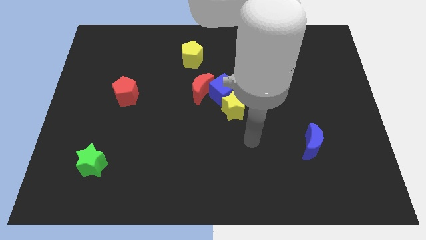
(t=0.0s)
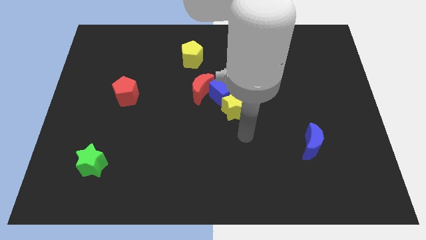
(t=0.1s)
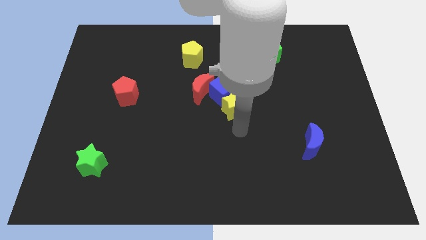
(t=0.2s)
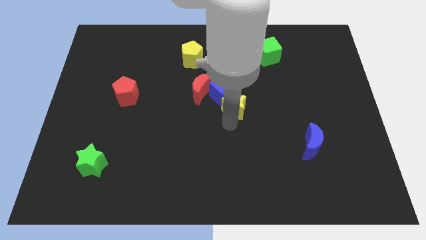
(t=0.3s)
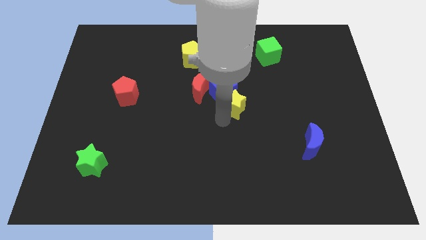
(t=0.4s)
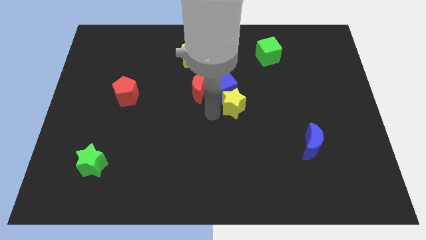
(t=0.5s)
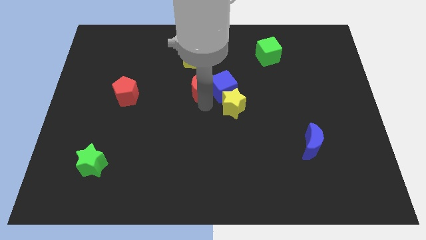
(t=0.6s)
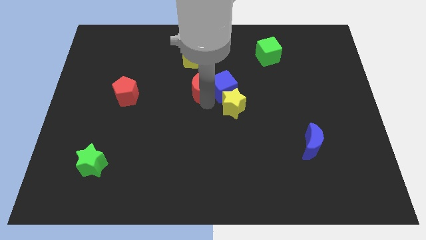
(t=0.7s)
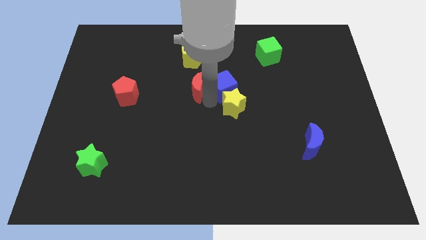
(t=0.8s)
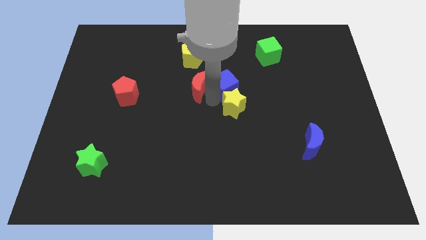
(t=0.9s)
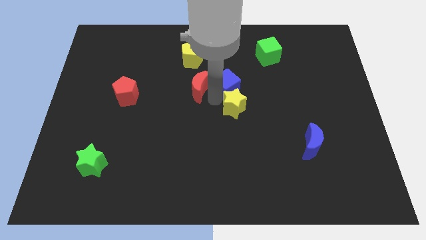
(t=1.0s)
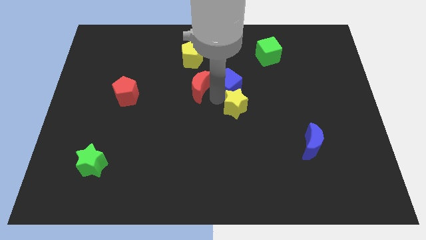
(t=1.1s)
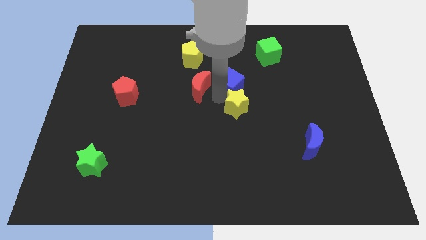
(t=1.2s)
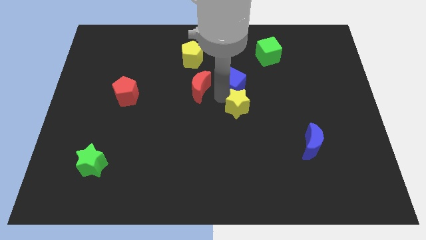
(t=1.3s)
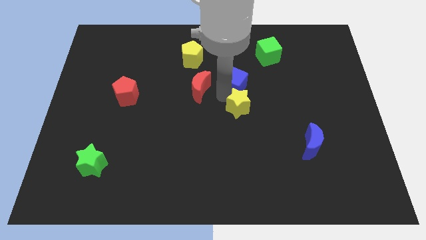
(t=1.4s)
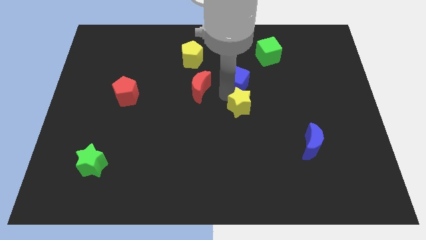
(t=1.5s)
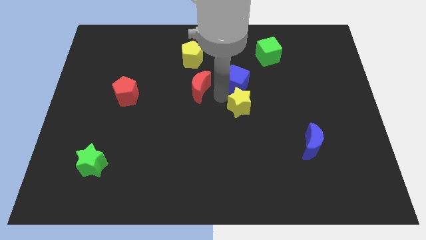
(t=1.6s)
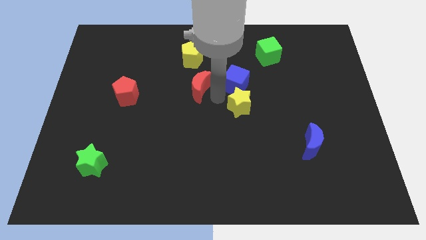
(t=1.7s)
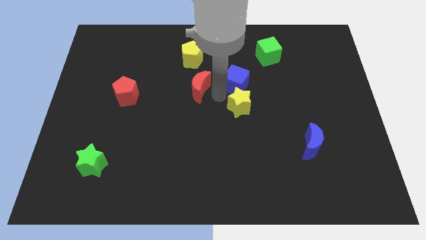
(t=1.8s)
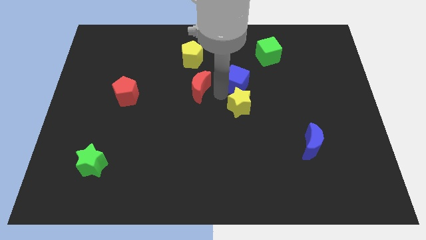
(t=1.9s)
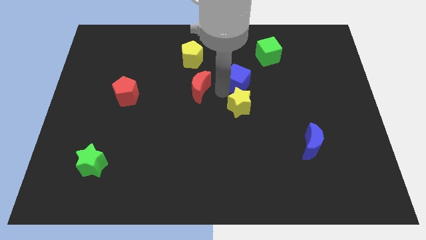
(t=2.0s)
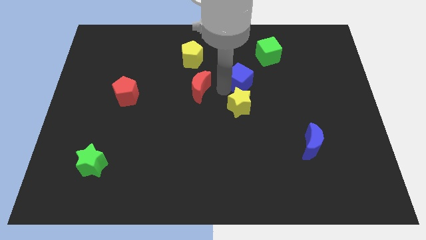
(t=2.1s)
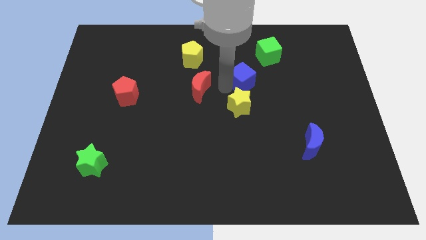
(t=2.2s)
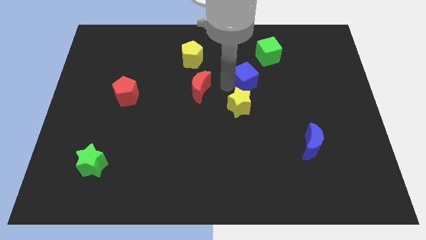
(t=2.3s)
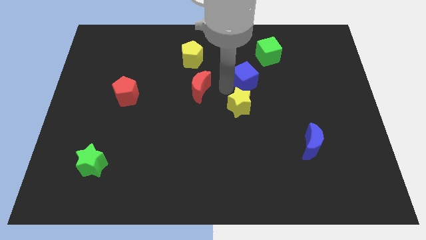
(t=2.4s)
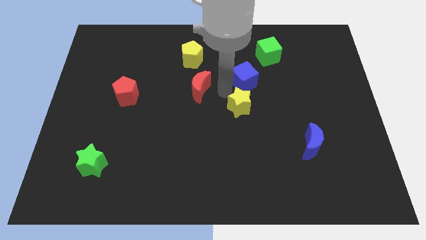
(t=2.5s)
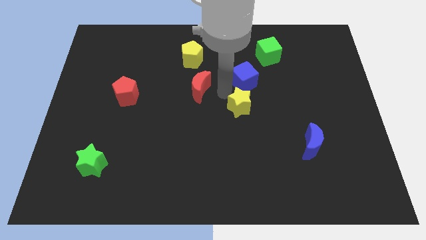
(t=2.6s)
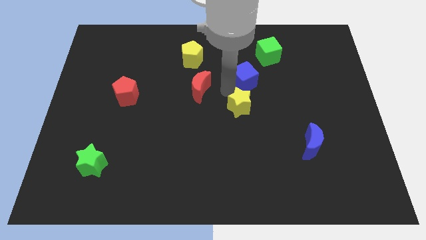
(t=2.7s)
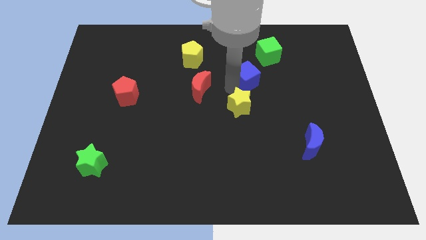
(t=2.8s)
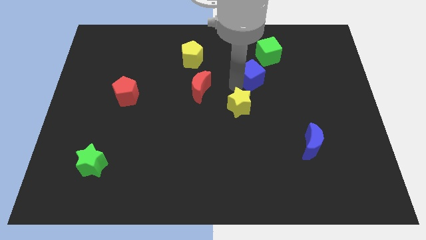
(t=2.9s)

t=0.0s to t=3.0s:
move the blue cube away from the red moon and yellow star

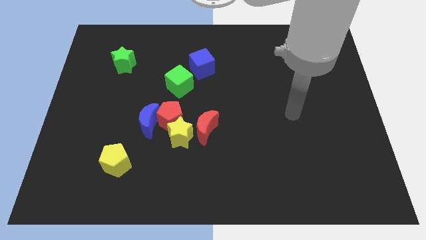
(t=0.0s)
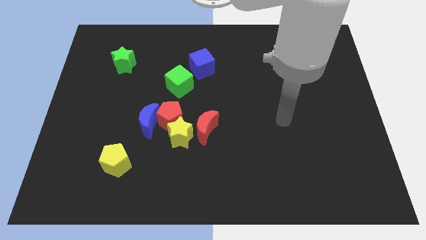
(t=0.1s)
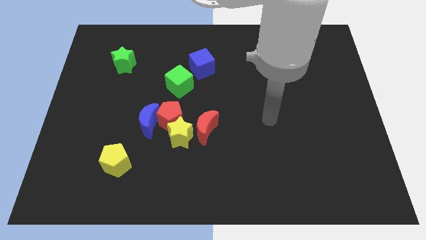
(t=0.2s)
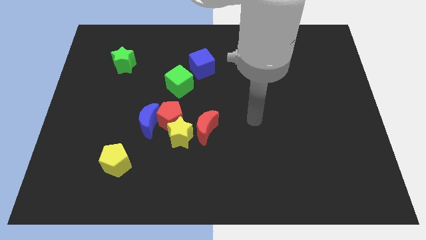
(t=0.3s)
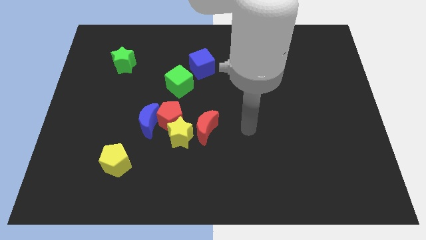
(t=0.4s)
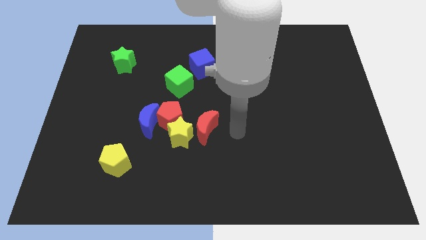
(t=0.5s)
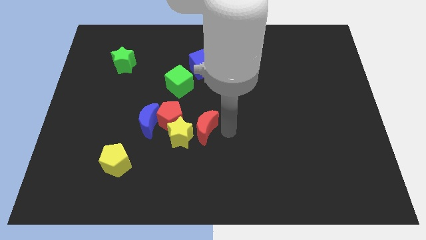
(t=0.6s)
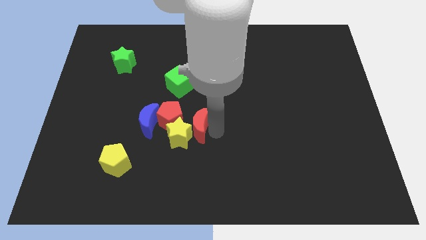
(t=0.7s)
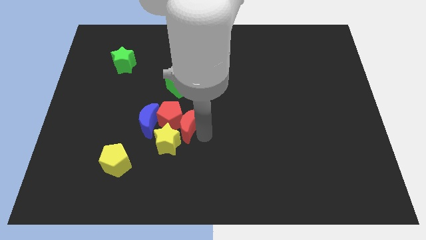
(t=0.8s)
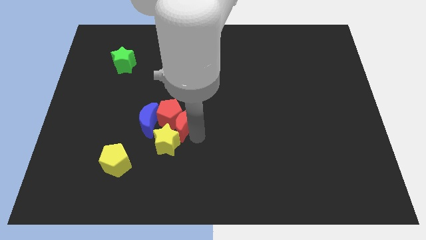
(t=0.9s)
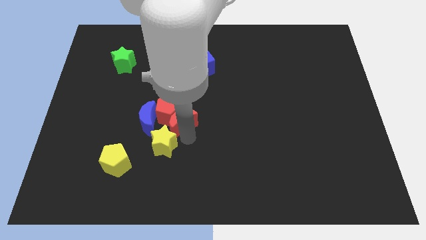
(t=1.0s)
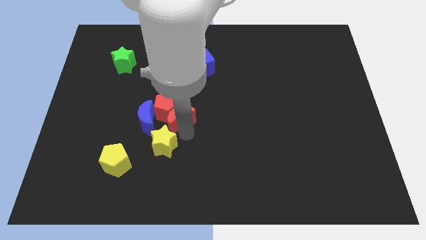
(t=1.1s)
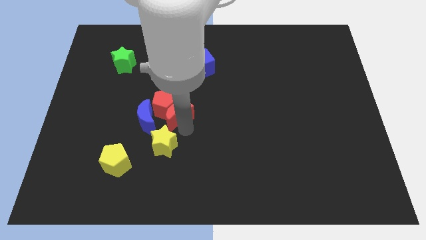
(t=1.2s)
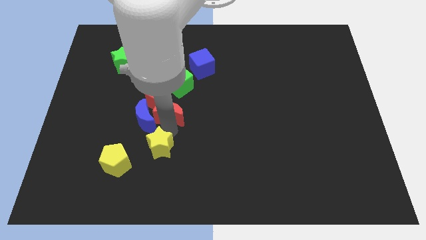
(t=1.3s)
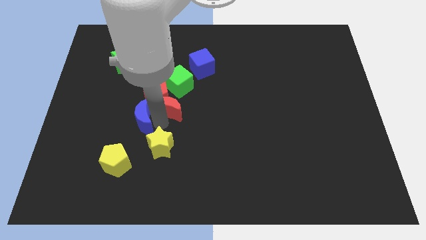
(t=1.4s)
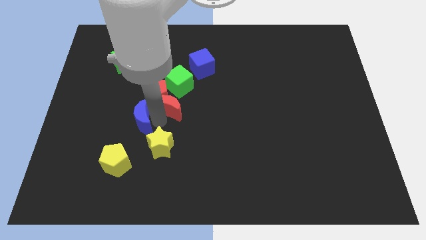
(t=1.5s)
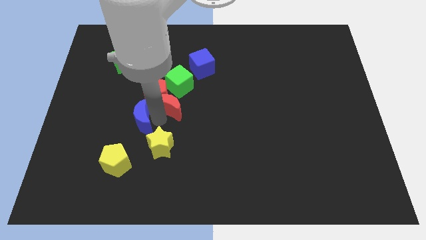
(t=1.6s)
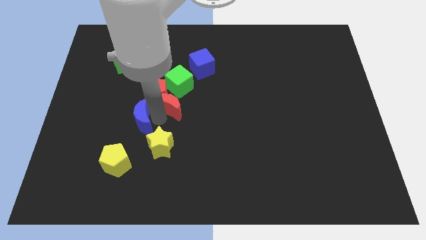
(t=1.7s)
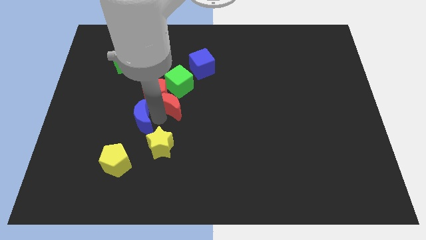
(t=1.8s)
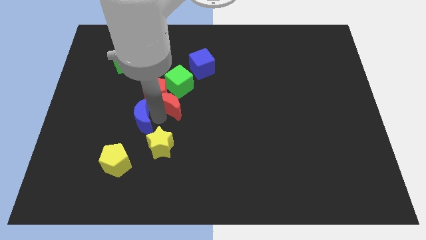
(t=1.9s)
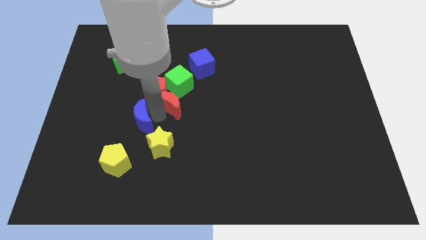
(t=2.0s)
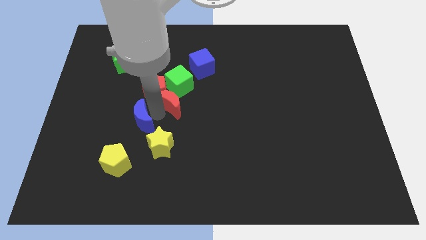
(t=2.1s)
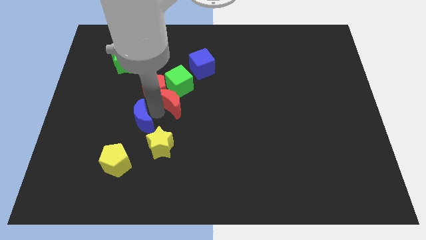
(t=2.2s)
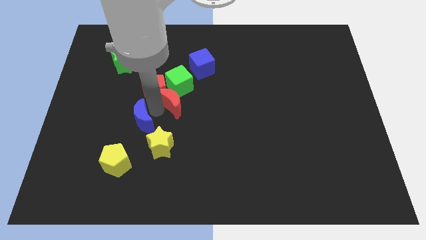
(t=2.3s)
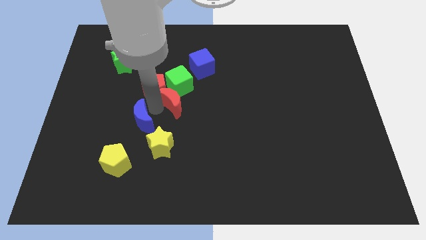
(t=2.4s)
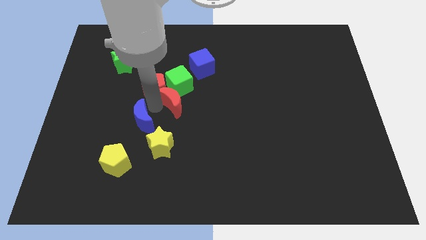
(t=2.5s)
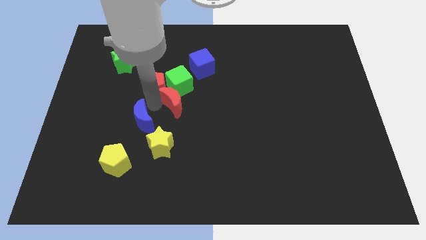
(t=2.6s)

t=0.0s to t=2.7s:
pull the red pentagon apart from the clump

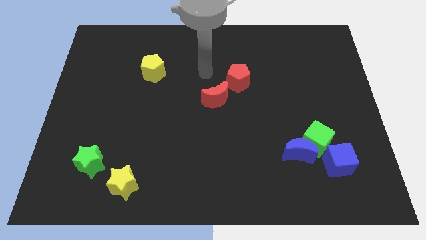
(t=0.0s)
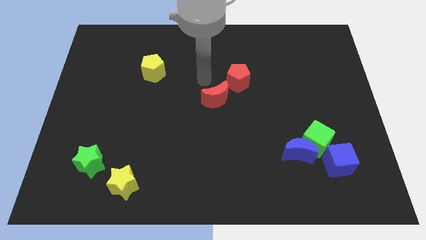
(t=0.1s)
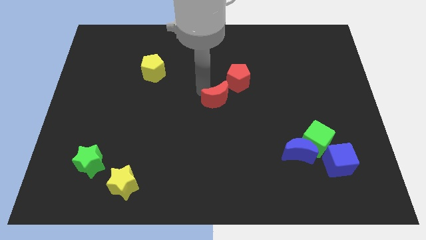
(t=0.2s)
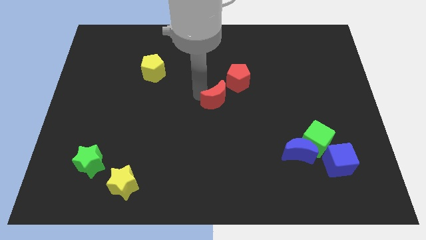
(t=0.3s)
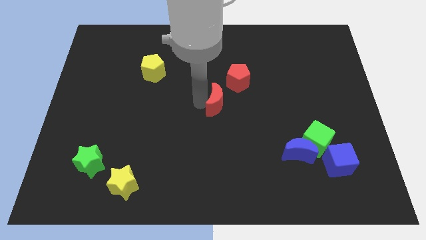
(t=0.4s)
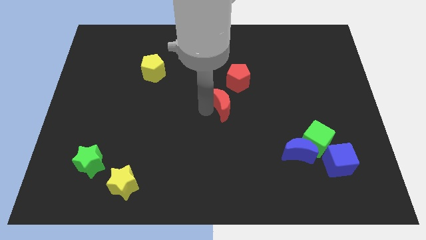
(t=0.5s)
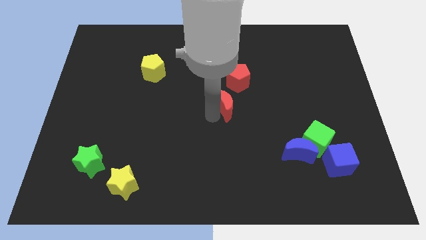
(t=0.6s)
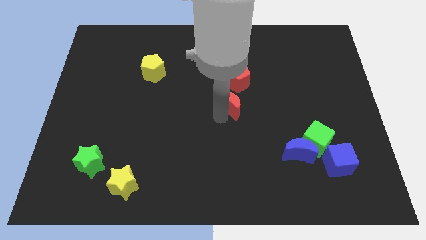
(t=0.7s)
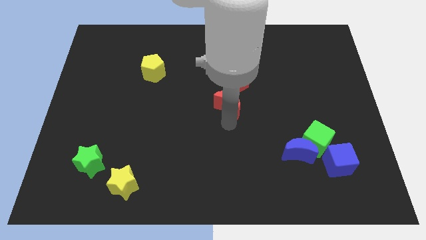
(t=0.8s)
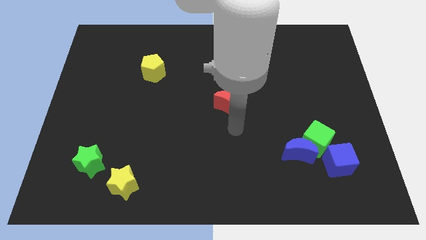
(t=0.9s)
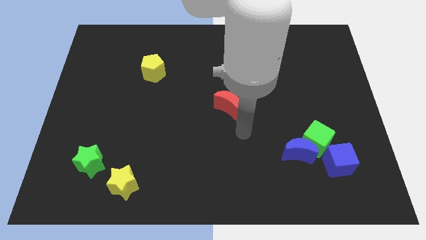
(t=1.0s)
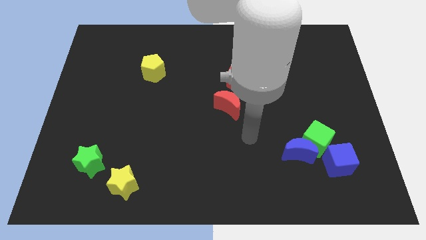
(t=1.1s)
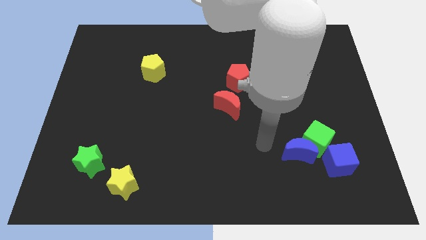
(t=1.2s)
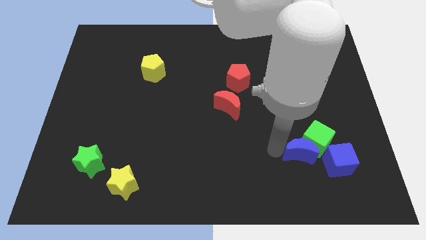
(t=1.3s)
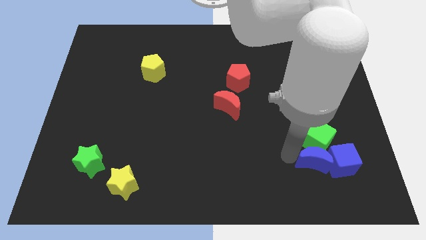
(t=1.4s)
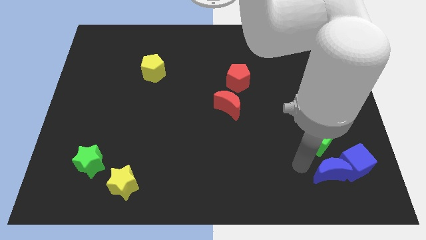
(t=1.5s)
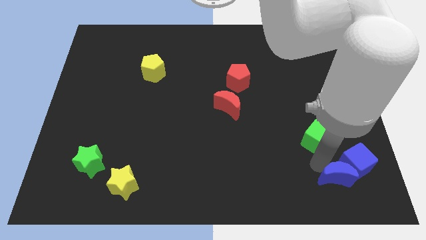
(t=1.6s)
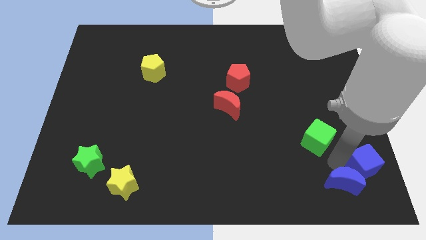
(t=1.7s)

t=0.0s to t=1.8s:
move the green cube away from the blue moon and blue cube

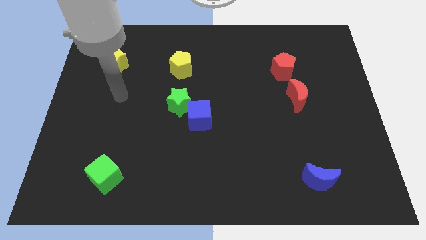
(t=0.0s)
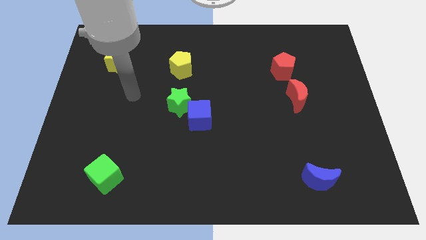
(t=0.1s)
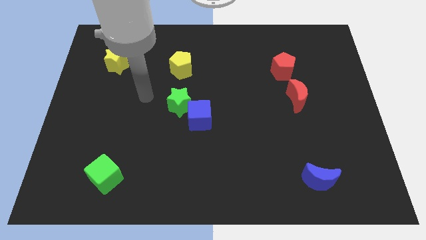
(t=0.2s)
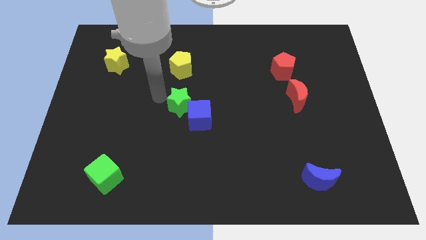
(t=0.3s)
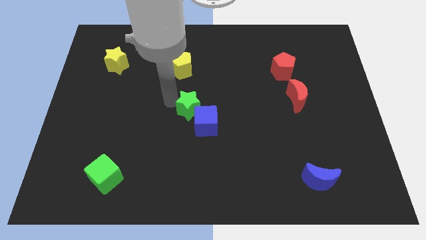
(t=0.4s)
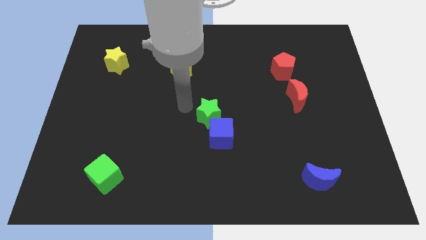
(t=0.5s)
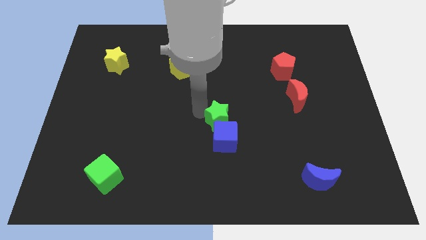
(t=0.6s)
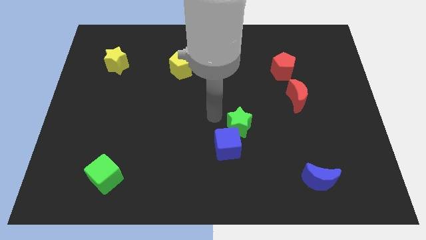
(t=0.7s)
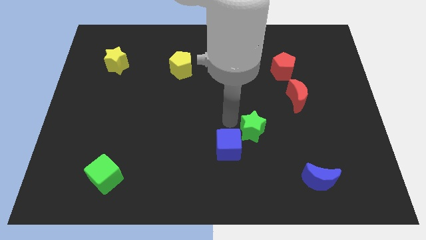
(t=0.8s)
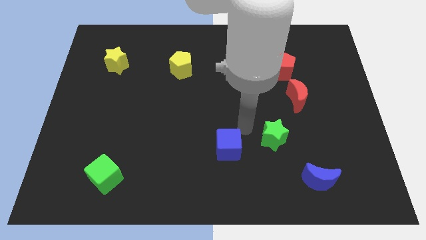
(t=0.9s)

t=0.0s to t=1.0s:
move the blue cube away from the green star

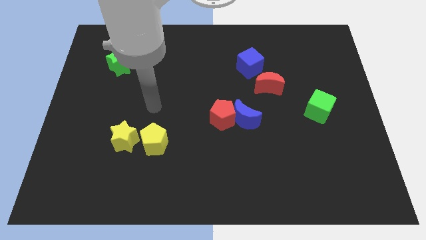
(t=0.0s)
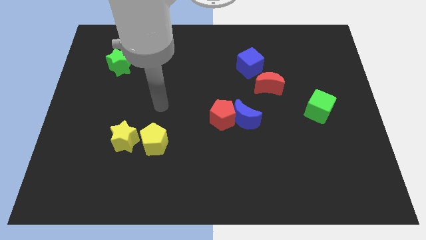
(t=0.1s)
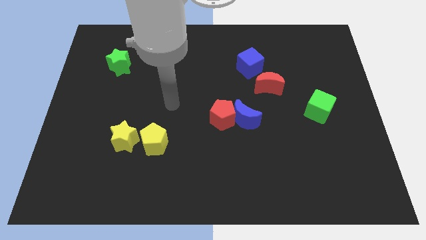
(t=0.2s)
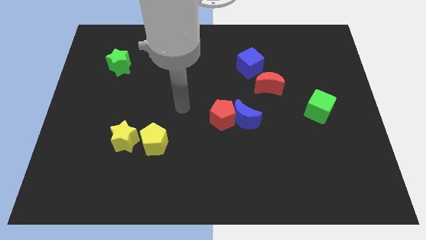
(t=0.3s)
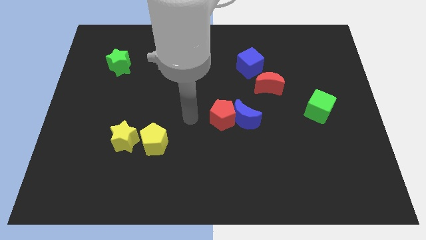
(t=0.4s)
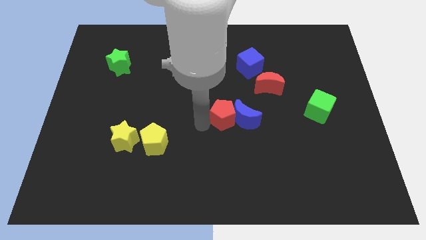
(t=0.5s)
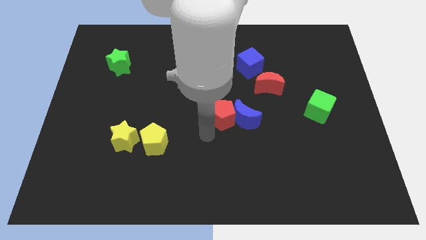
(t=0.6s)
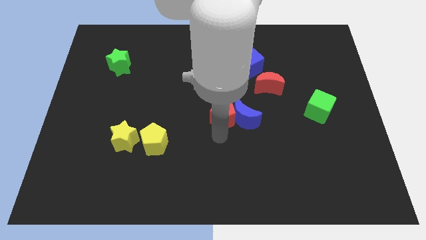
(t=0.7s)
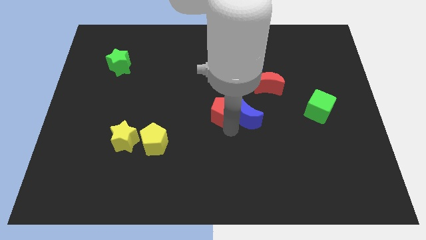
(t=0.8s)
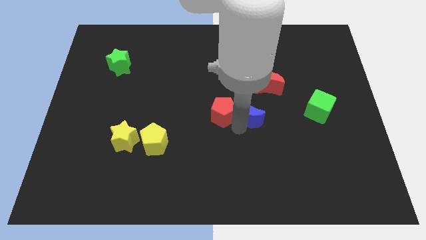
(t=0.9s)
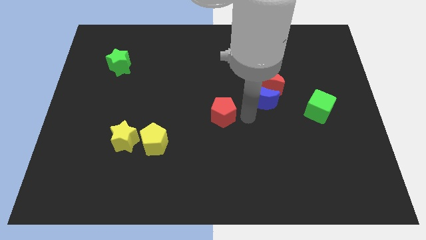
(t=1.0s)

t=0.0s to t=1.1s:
pull the red pentagon apart from the blue moon
